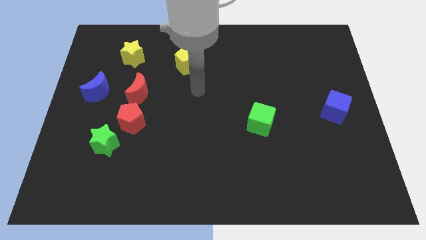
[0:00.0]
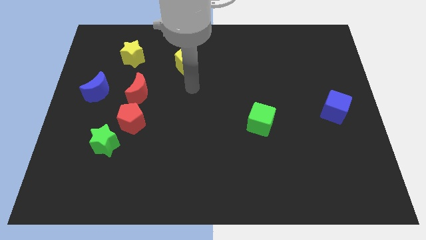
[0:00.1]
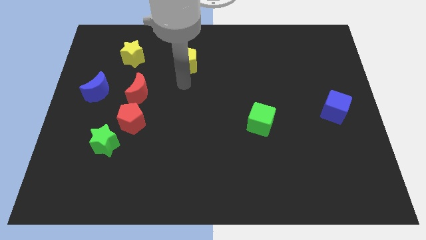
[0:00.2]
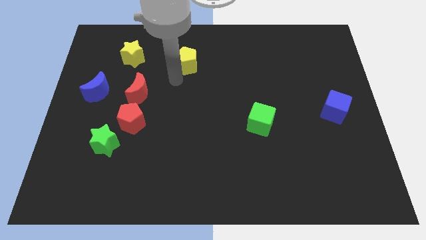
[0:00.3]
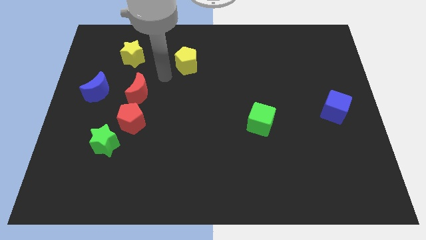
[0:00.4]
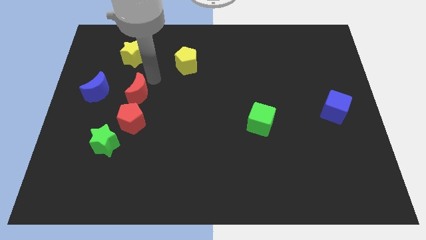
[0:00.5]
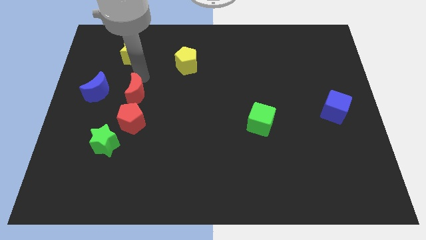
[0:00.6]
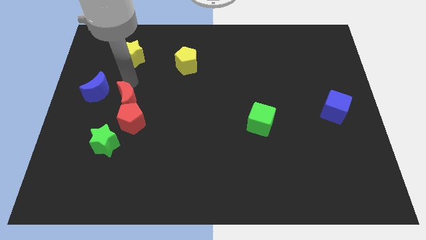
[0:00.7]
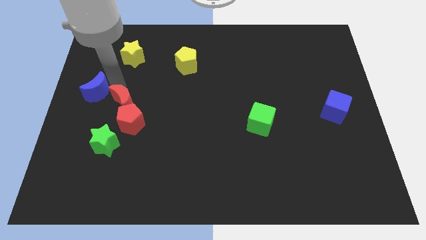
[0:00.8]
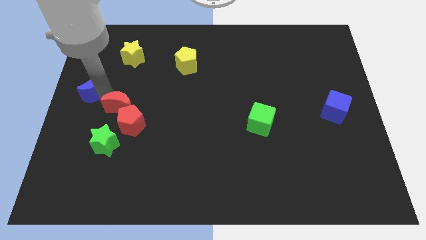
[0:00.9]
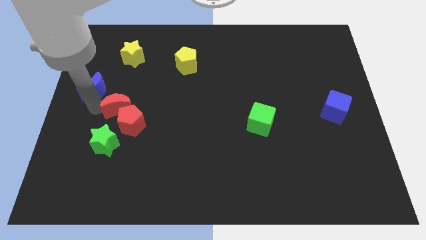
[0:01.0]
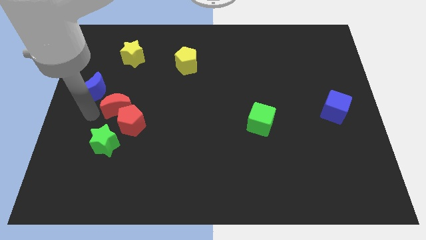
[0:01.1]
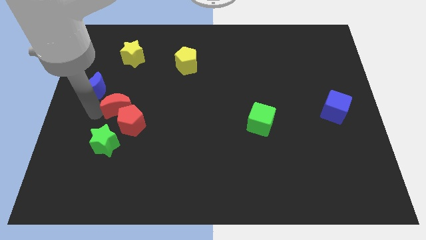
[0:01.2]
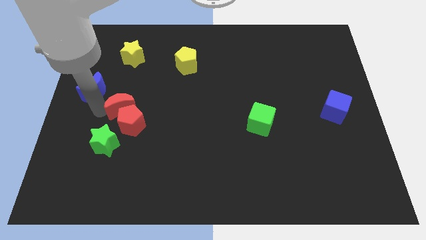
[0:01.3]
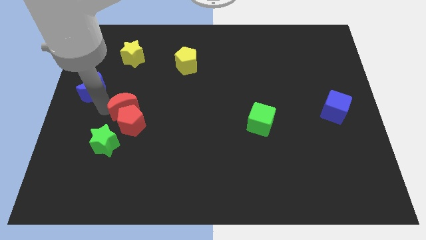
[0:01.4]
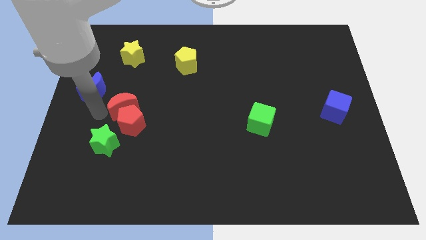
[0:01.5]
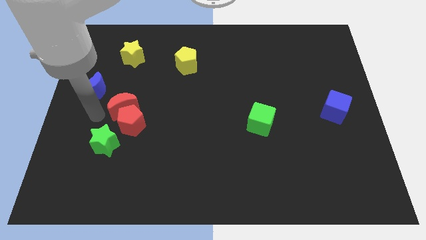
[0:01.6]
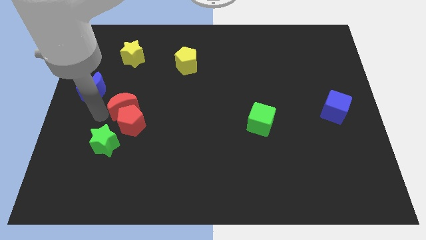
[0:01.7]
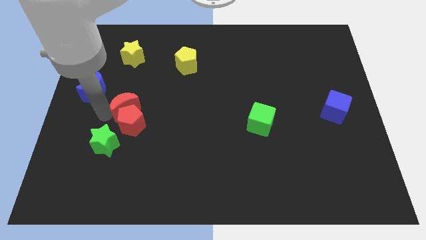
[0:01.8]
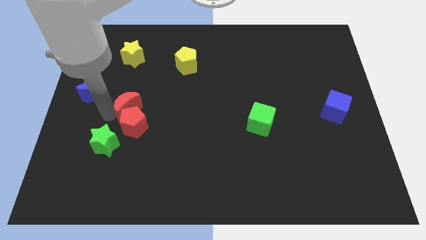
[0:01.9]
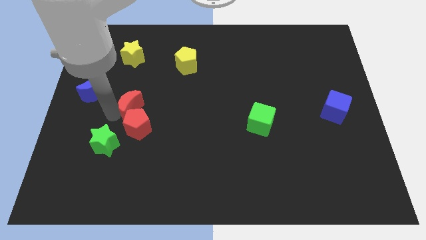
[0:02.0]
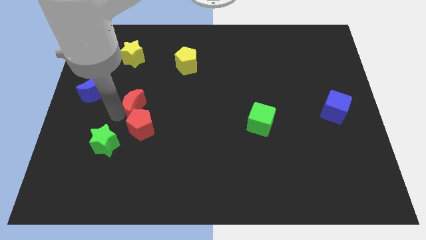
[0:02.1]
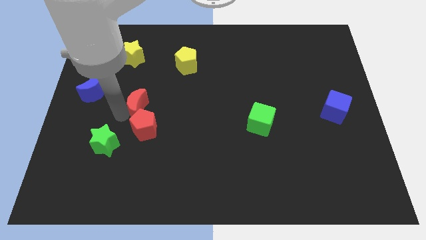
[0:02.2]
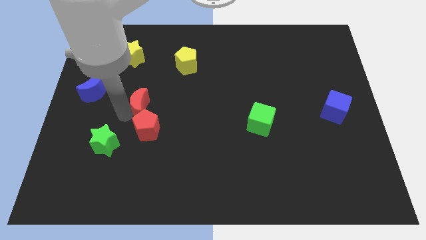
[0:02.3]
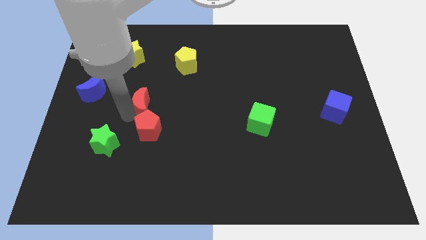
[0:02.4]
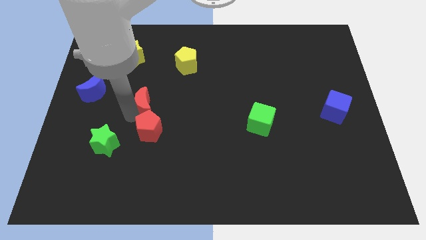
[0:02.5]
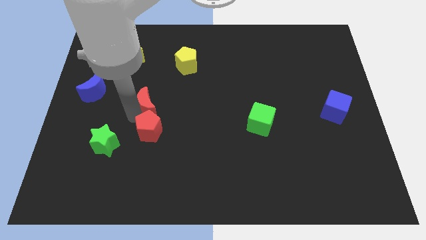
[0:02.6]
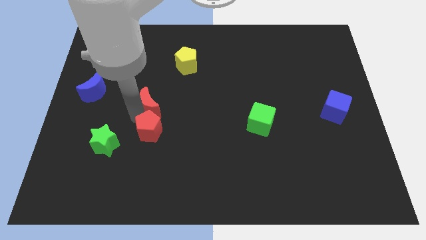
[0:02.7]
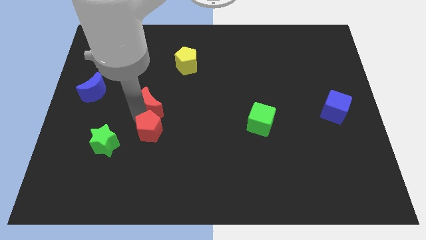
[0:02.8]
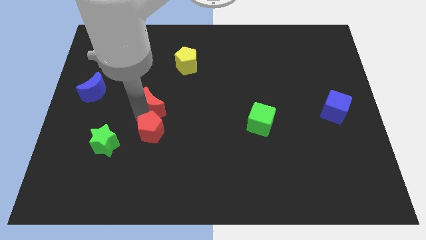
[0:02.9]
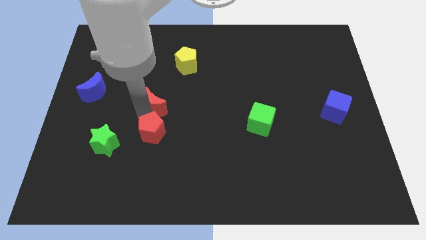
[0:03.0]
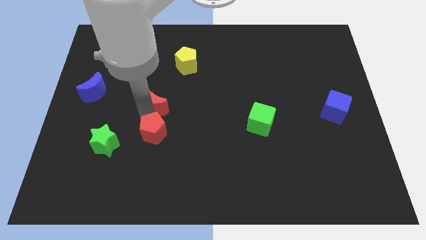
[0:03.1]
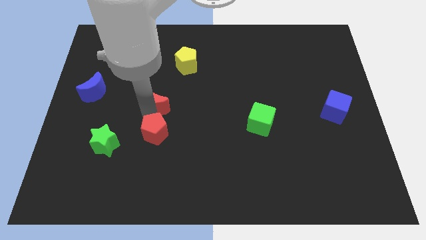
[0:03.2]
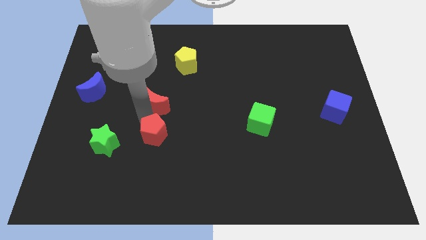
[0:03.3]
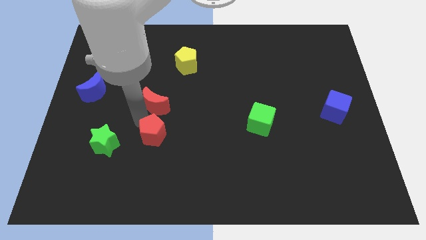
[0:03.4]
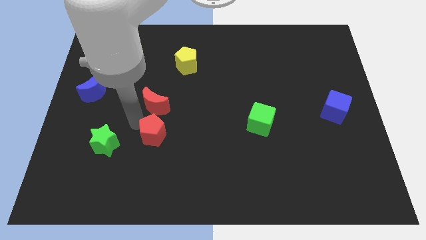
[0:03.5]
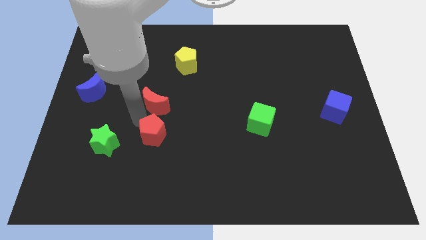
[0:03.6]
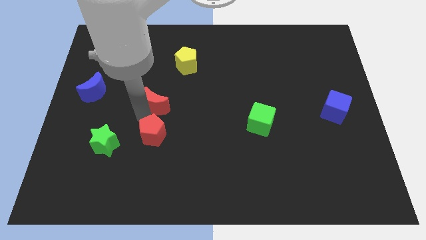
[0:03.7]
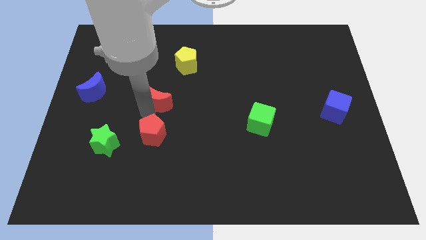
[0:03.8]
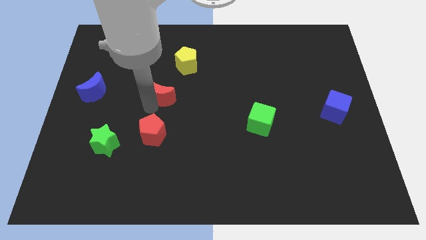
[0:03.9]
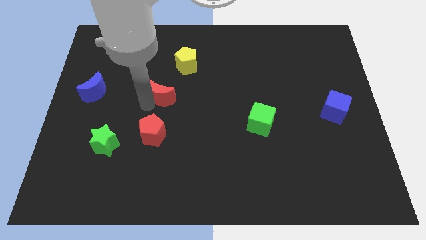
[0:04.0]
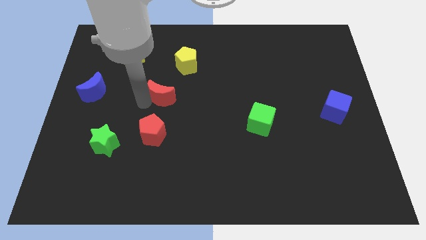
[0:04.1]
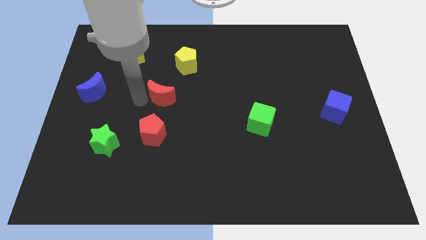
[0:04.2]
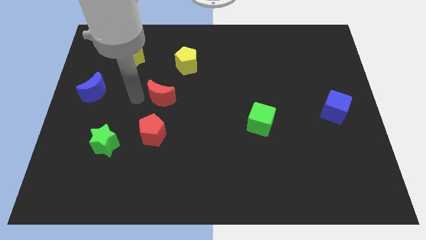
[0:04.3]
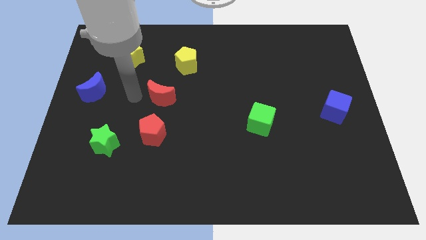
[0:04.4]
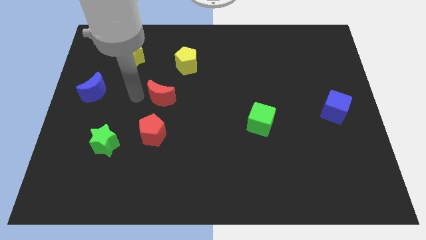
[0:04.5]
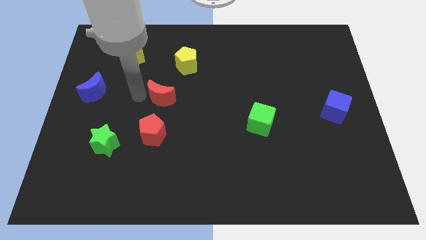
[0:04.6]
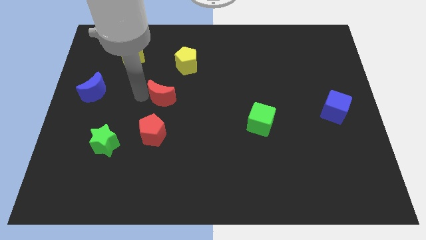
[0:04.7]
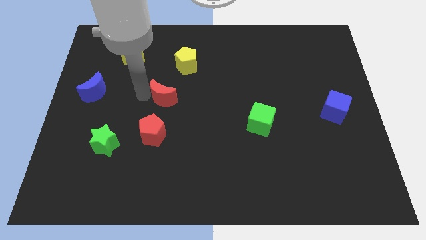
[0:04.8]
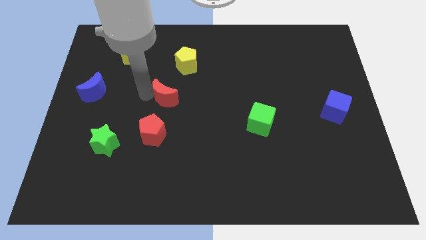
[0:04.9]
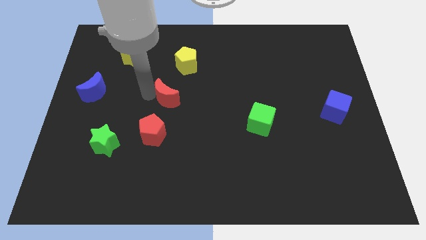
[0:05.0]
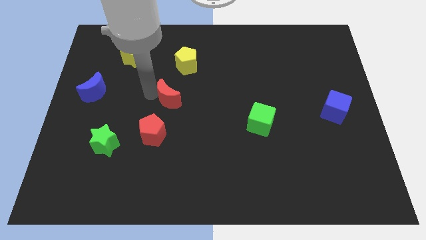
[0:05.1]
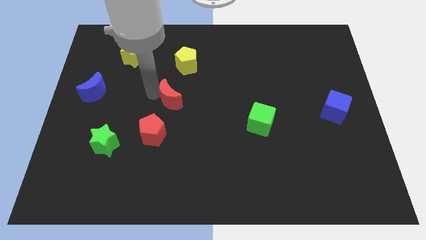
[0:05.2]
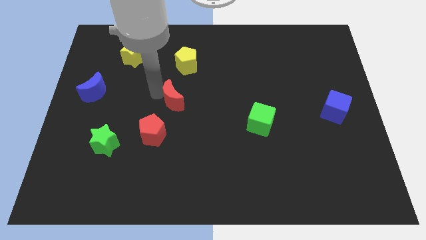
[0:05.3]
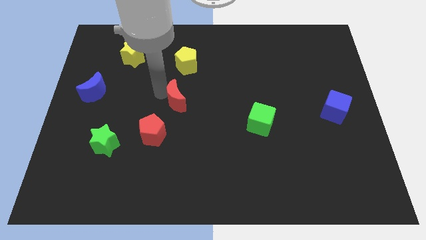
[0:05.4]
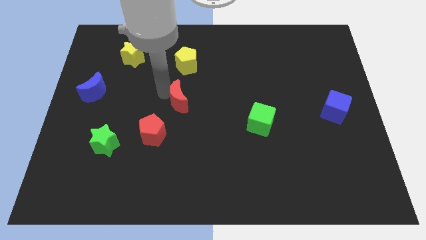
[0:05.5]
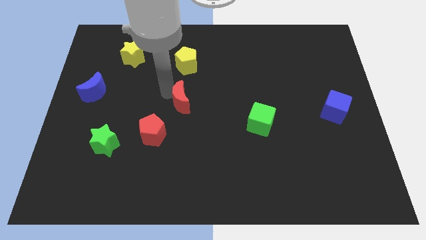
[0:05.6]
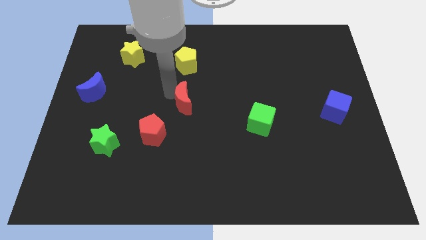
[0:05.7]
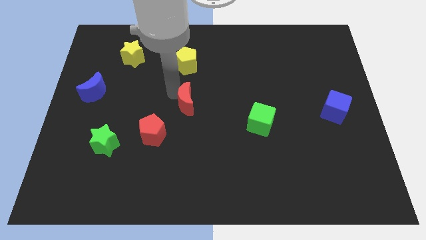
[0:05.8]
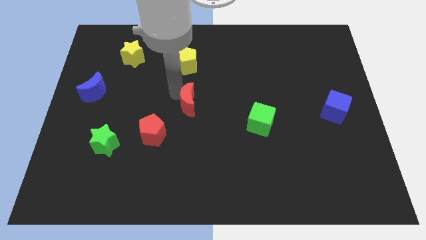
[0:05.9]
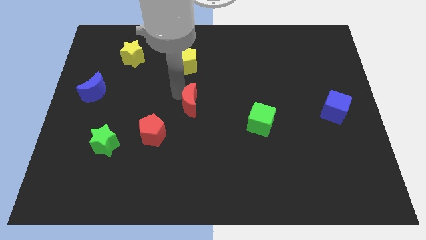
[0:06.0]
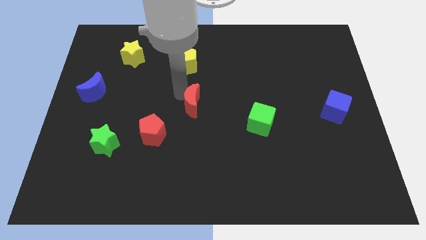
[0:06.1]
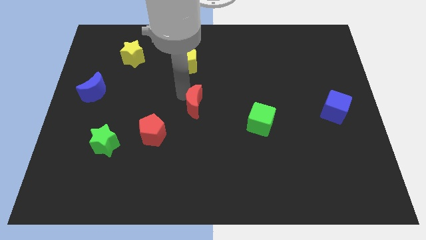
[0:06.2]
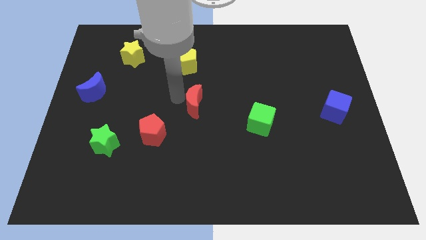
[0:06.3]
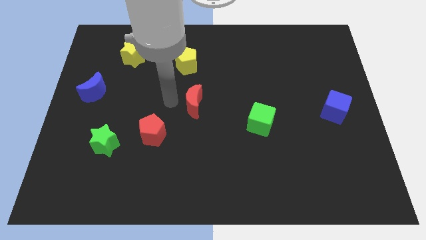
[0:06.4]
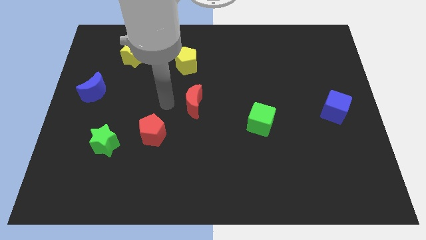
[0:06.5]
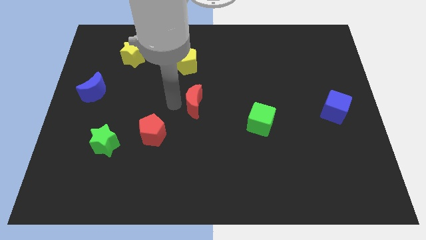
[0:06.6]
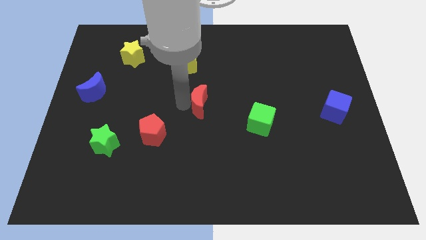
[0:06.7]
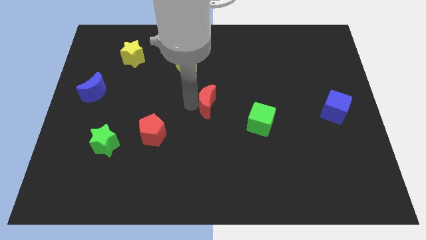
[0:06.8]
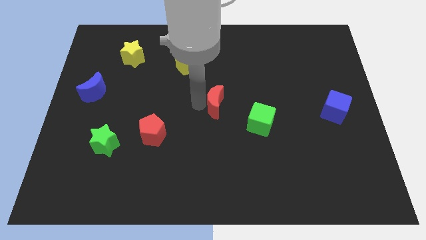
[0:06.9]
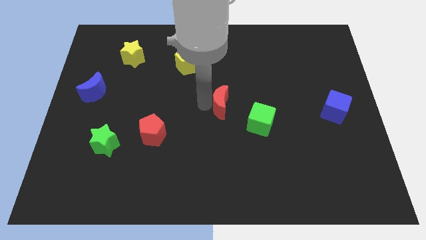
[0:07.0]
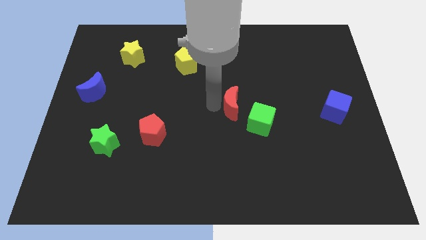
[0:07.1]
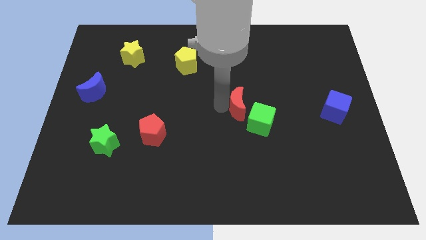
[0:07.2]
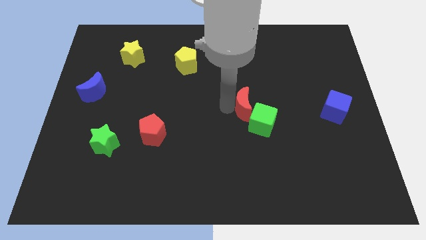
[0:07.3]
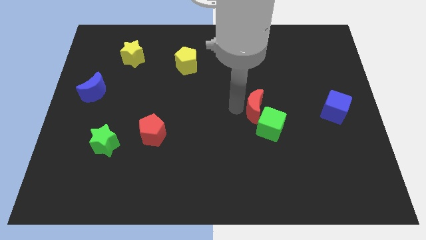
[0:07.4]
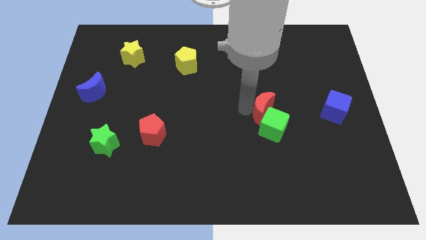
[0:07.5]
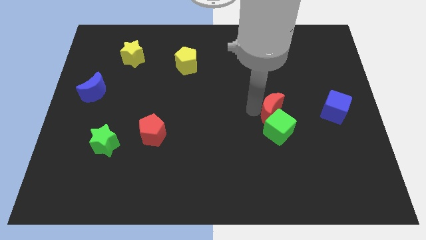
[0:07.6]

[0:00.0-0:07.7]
put the red moon to the top right of the green cube
